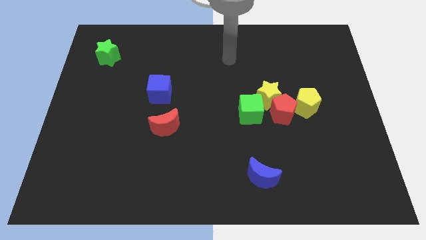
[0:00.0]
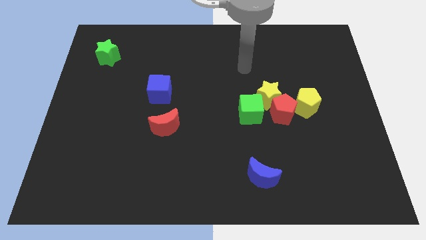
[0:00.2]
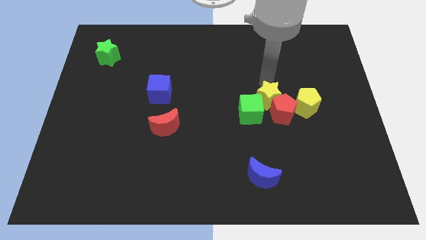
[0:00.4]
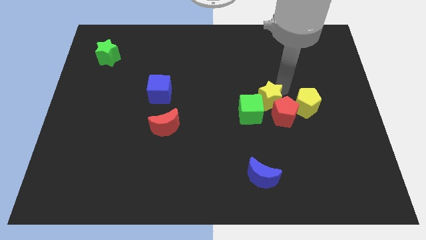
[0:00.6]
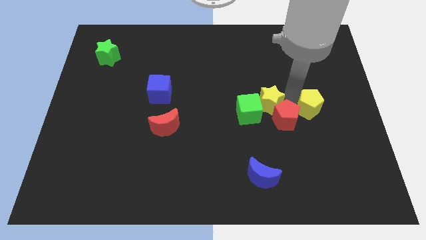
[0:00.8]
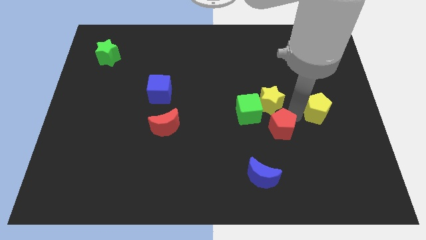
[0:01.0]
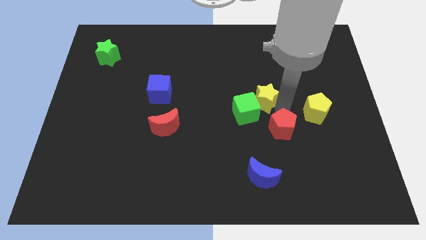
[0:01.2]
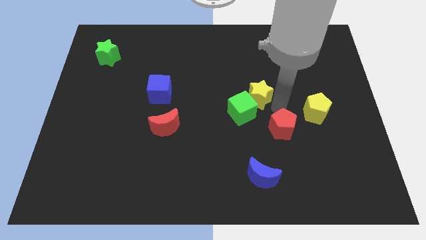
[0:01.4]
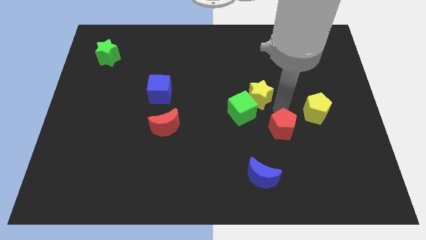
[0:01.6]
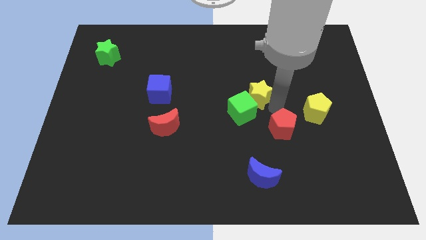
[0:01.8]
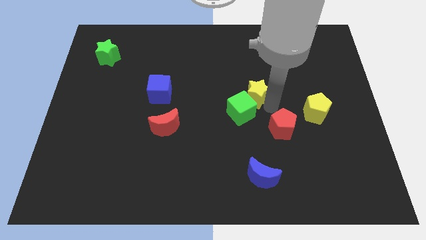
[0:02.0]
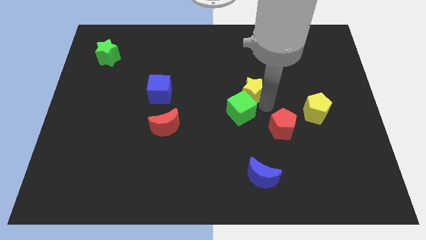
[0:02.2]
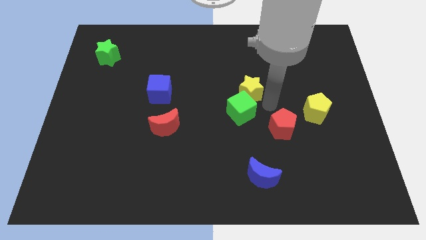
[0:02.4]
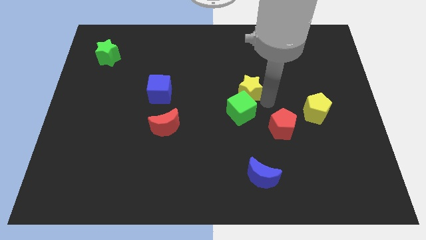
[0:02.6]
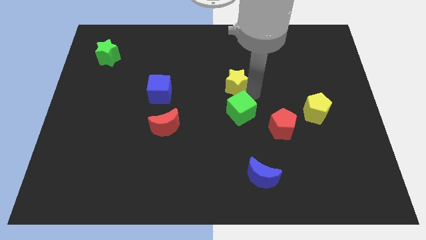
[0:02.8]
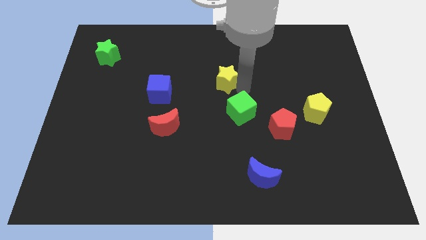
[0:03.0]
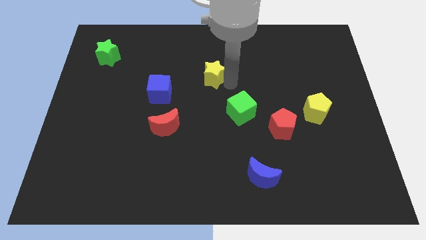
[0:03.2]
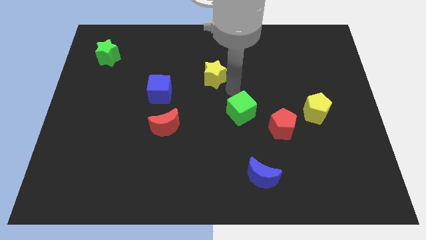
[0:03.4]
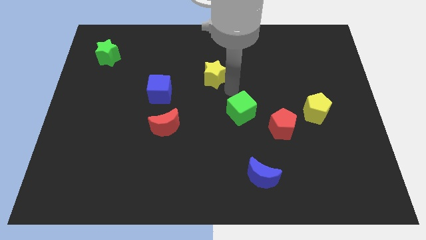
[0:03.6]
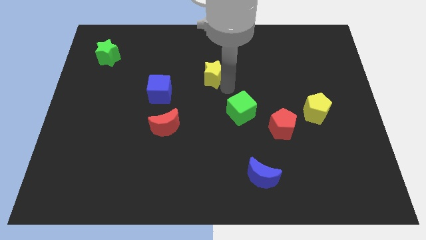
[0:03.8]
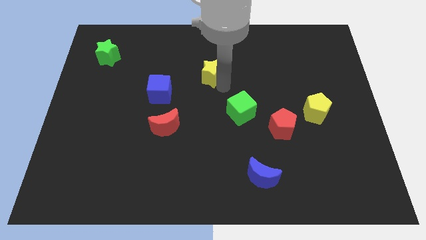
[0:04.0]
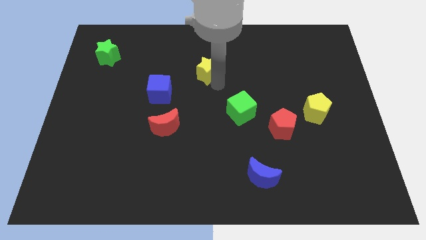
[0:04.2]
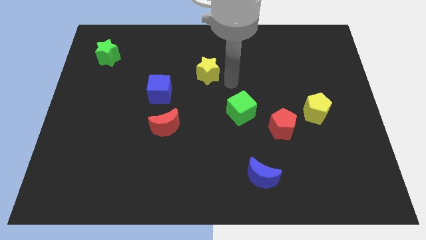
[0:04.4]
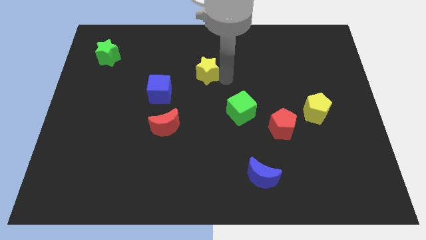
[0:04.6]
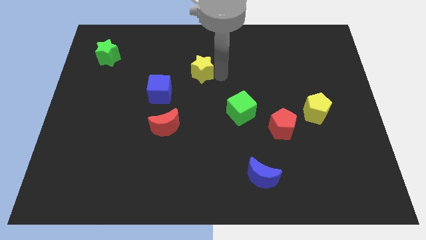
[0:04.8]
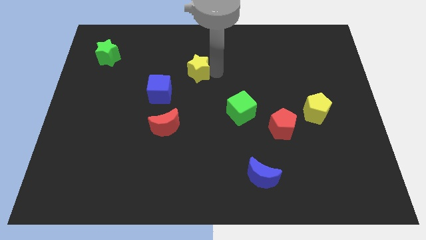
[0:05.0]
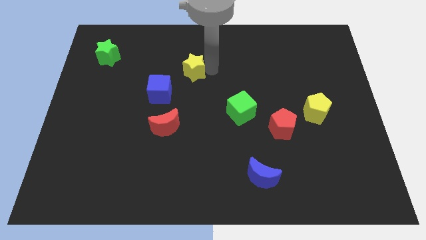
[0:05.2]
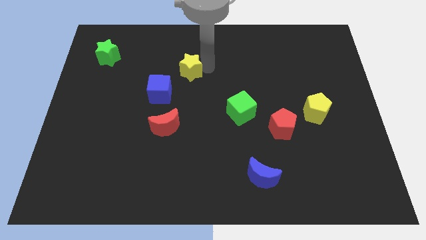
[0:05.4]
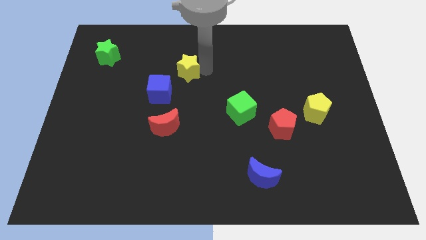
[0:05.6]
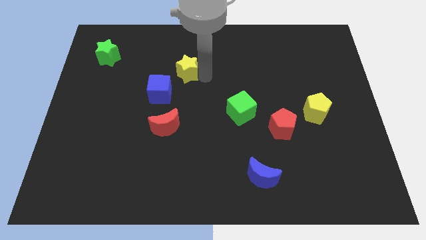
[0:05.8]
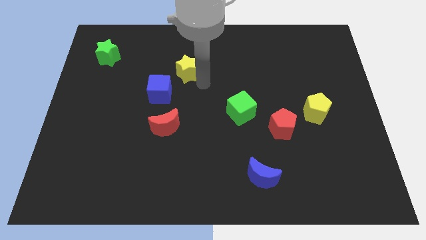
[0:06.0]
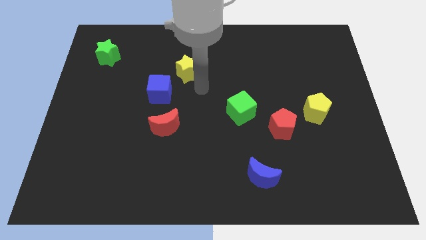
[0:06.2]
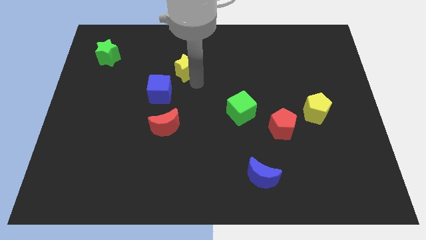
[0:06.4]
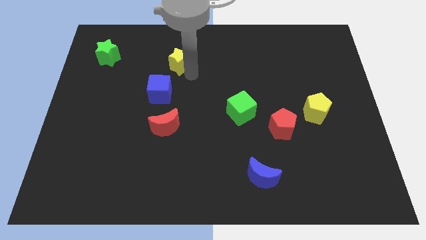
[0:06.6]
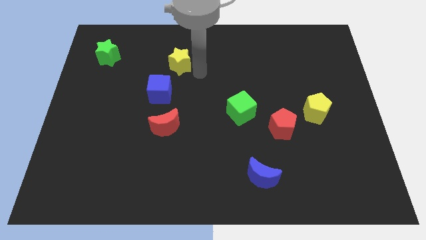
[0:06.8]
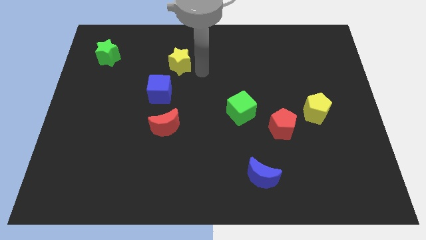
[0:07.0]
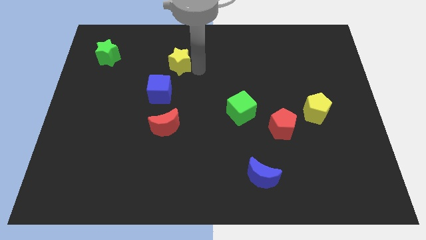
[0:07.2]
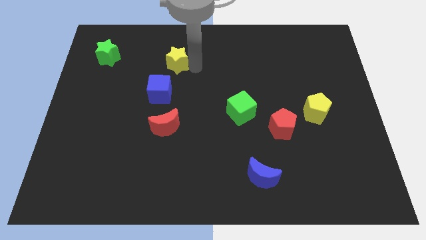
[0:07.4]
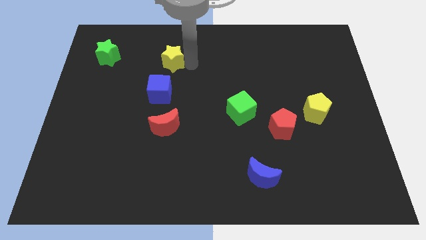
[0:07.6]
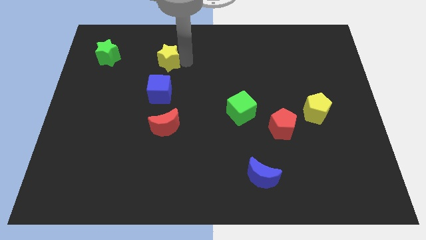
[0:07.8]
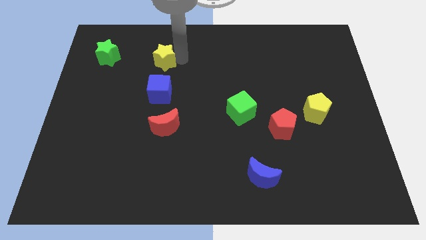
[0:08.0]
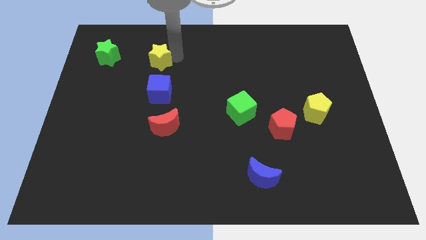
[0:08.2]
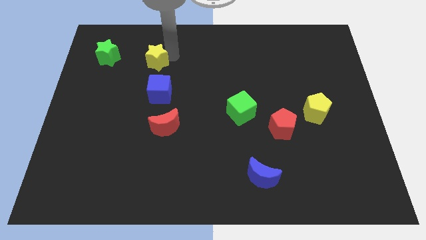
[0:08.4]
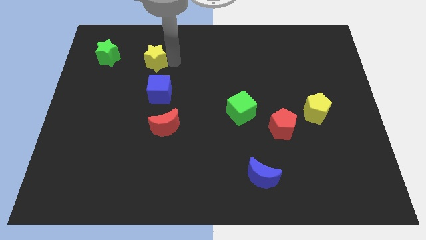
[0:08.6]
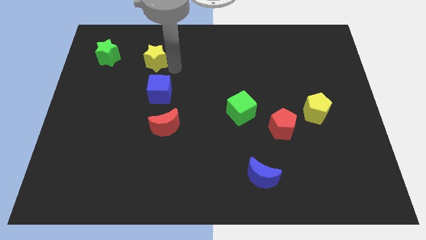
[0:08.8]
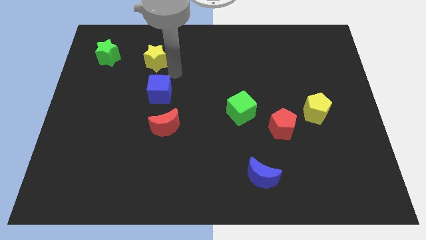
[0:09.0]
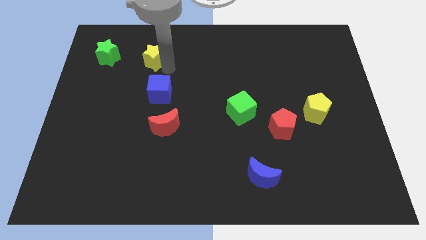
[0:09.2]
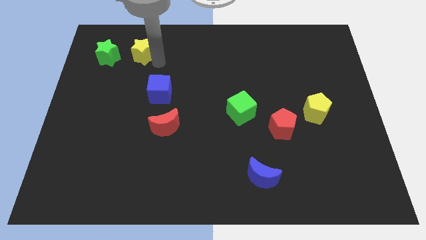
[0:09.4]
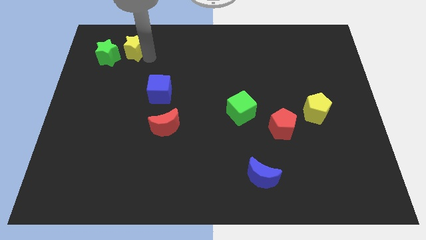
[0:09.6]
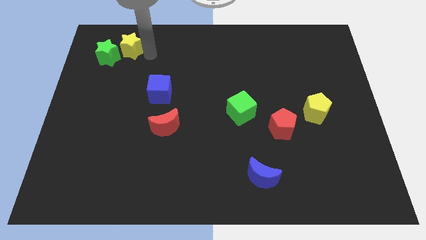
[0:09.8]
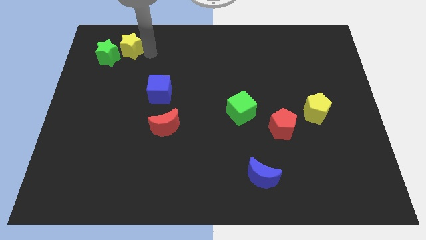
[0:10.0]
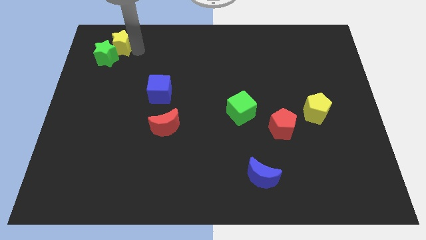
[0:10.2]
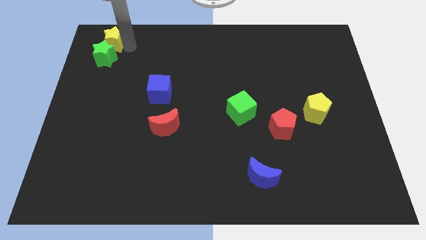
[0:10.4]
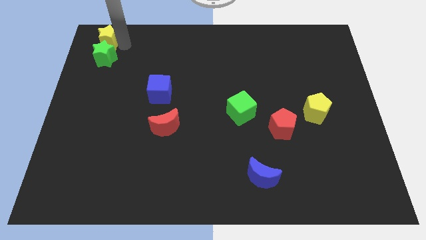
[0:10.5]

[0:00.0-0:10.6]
slide the yellow star to the top left of the board

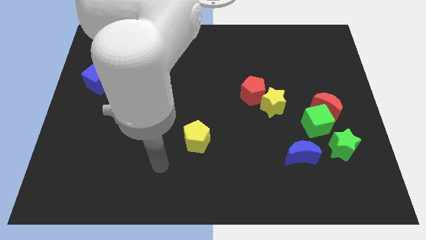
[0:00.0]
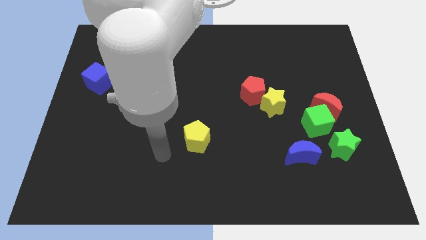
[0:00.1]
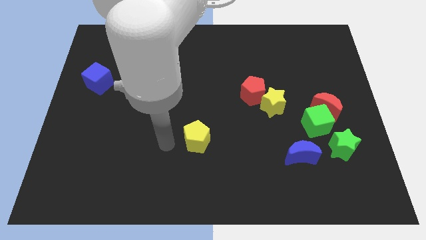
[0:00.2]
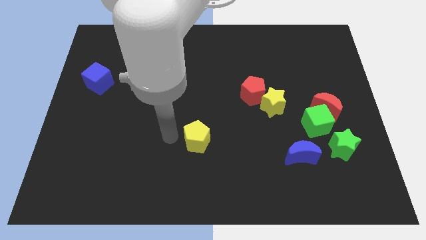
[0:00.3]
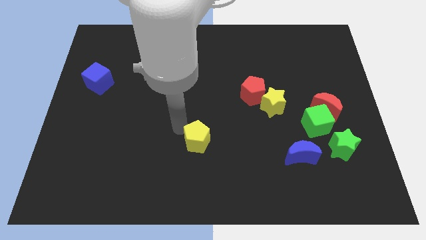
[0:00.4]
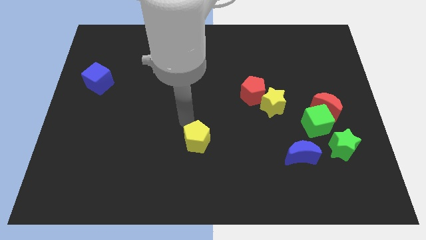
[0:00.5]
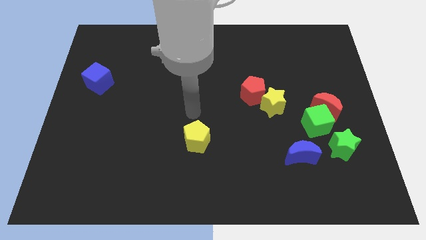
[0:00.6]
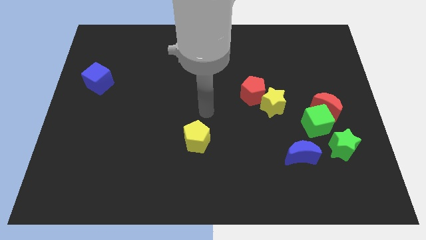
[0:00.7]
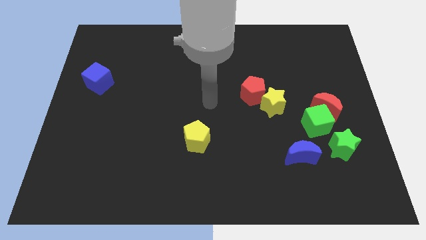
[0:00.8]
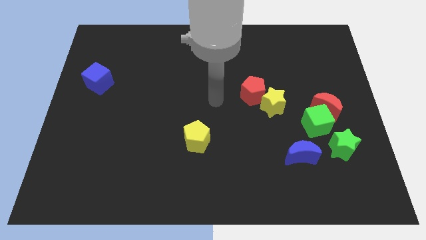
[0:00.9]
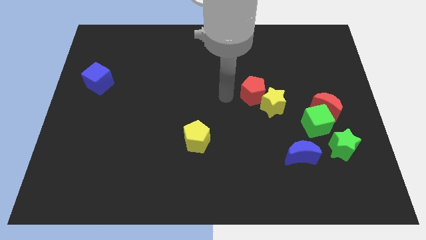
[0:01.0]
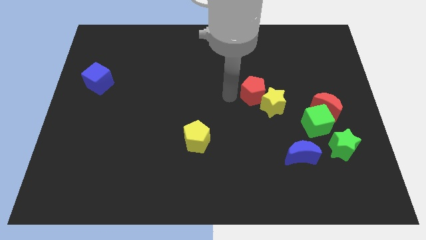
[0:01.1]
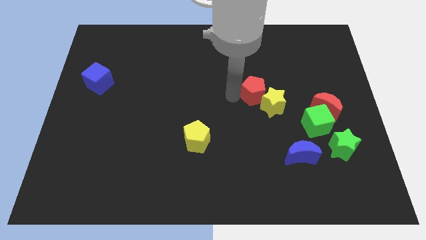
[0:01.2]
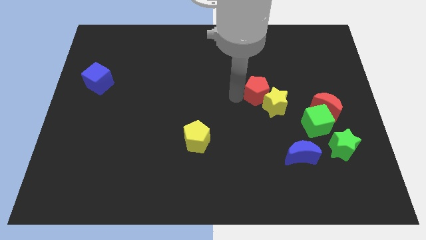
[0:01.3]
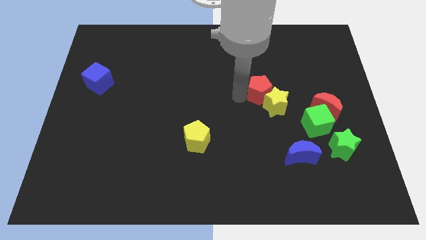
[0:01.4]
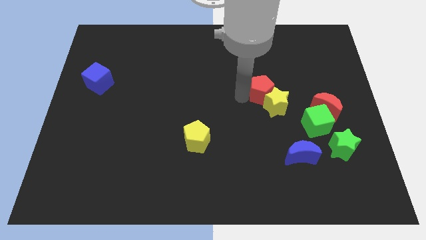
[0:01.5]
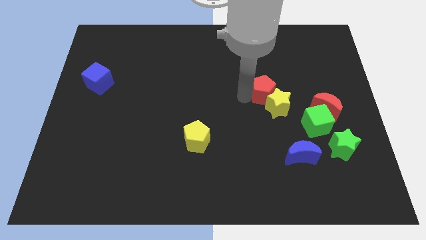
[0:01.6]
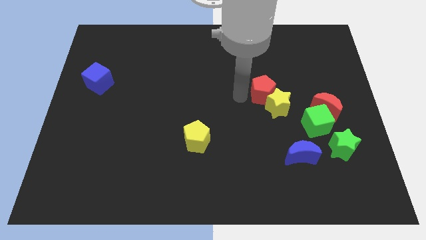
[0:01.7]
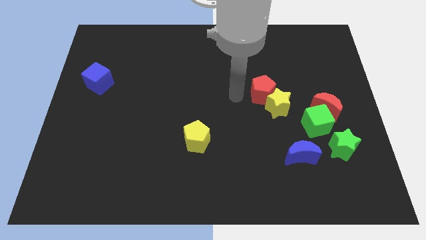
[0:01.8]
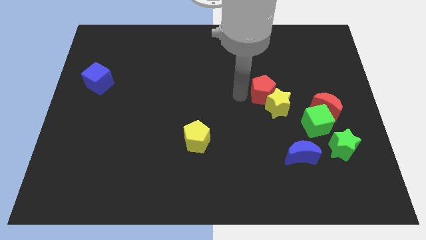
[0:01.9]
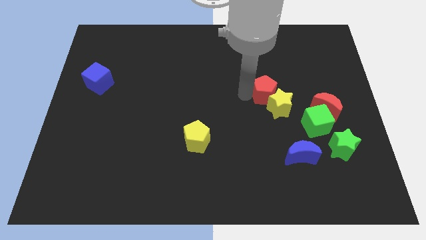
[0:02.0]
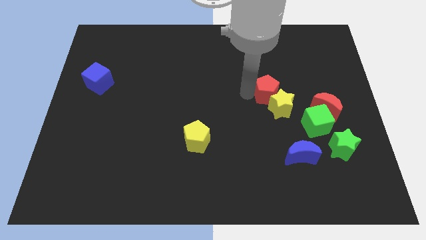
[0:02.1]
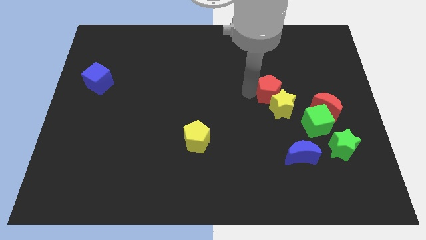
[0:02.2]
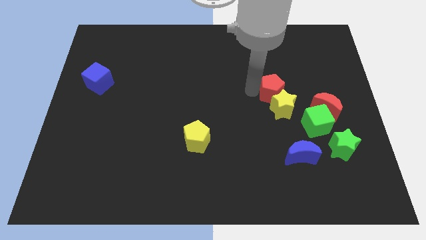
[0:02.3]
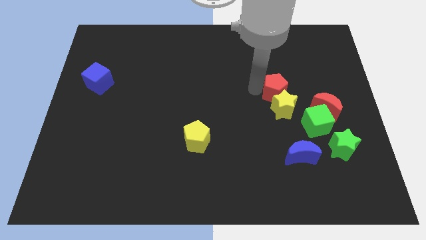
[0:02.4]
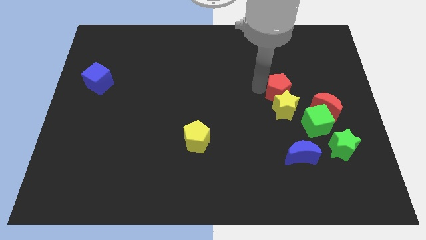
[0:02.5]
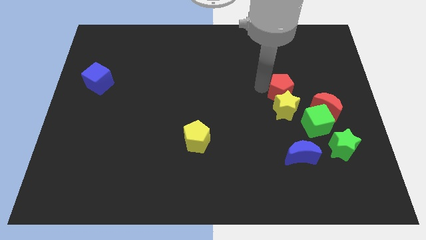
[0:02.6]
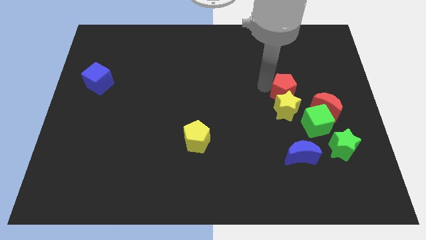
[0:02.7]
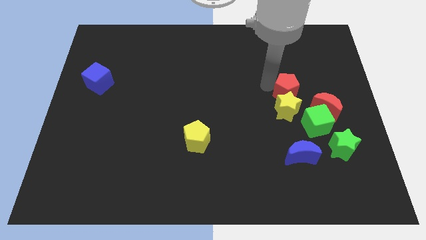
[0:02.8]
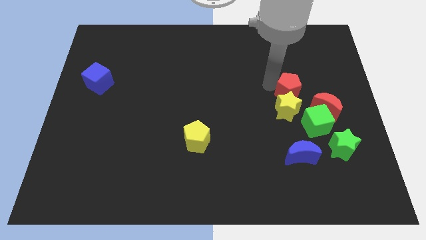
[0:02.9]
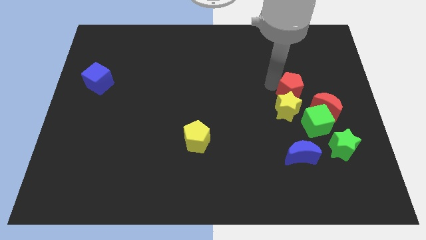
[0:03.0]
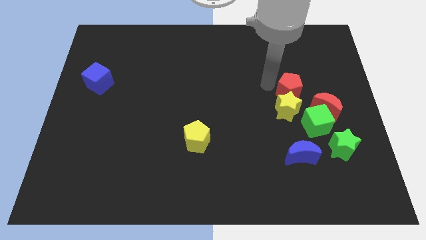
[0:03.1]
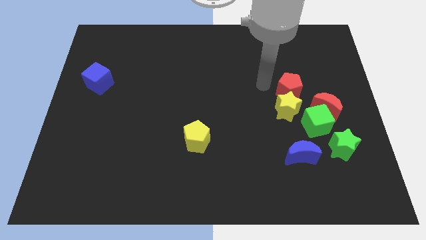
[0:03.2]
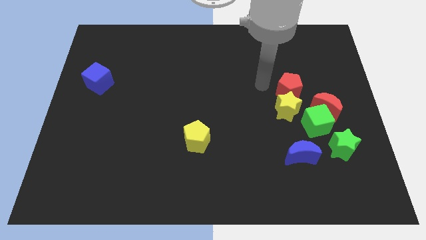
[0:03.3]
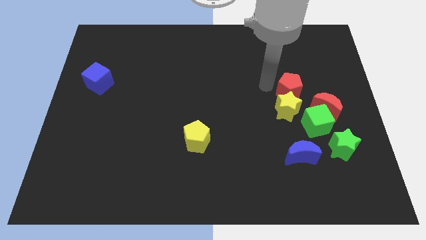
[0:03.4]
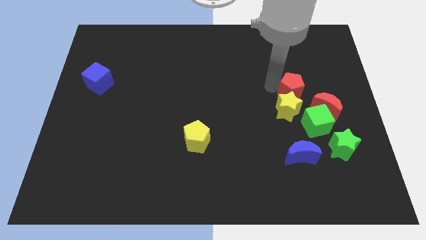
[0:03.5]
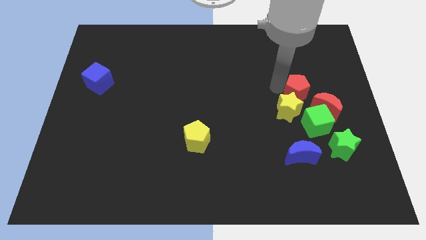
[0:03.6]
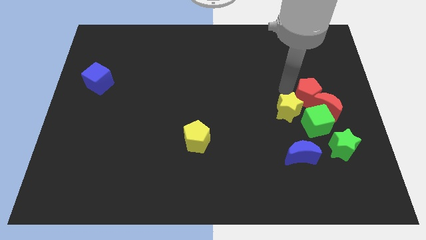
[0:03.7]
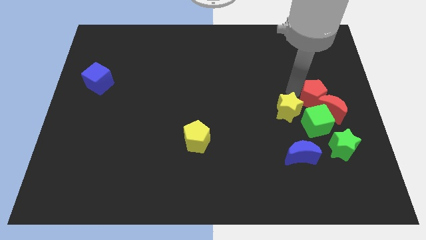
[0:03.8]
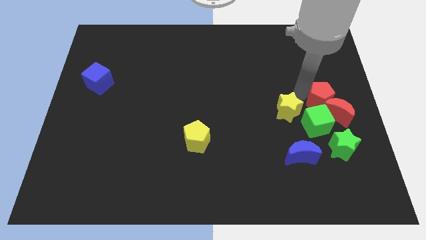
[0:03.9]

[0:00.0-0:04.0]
slide the red pentagon to the center right
